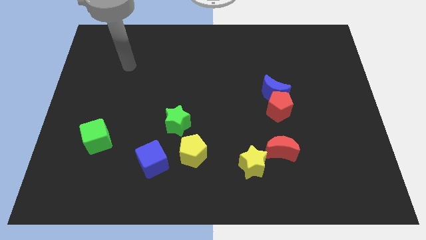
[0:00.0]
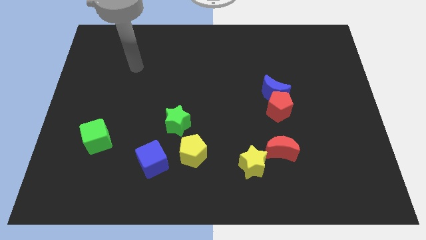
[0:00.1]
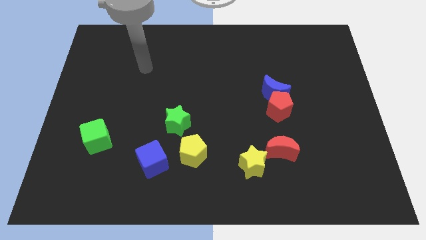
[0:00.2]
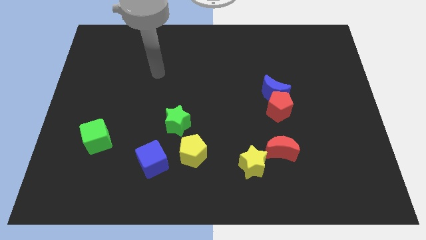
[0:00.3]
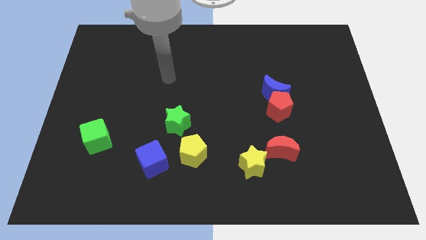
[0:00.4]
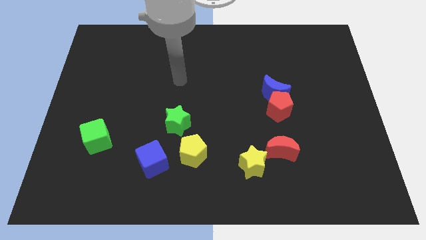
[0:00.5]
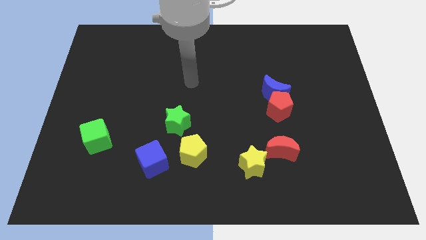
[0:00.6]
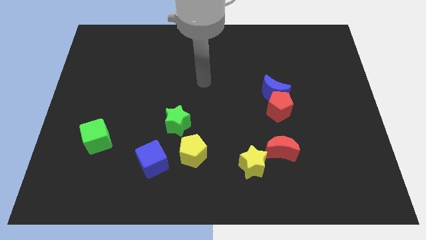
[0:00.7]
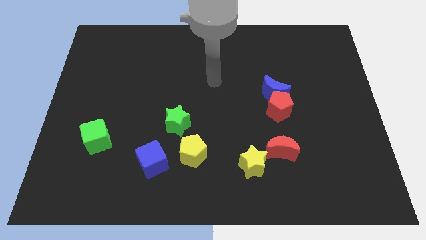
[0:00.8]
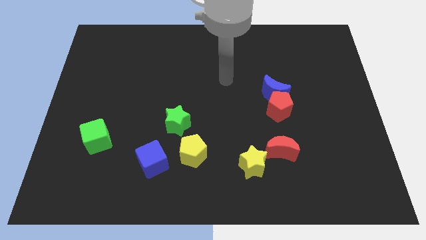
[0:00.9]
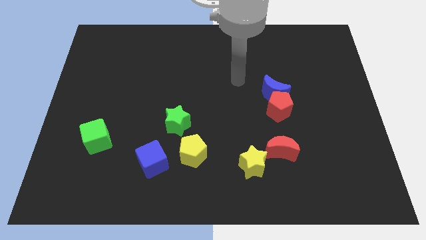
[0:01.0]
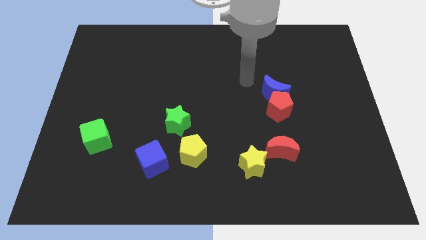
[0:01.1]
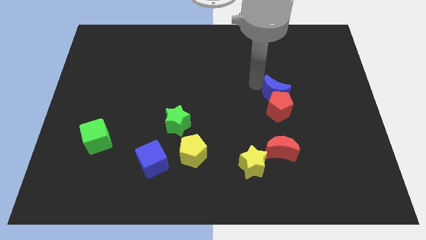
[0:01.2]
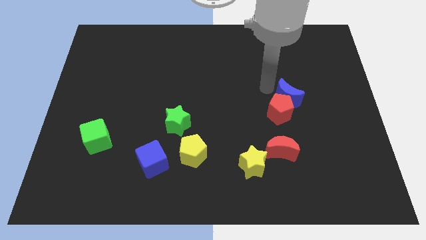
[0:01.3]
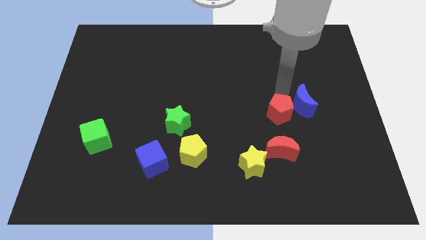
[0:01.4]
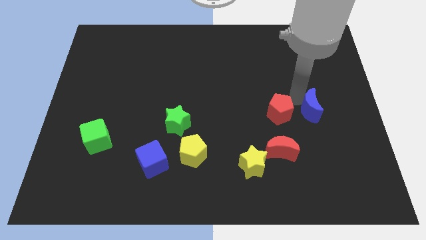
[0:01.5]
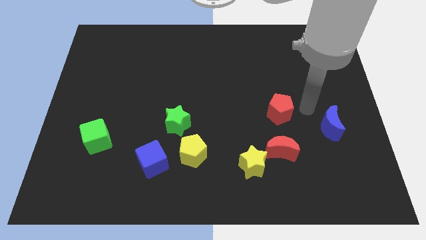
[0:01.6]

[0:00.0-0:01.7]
move the red pentagon away from the blue moon

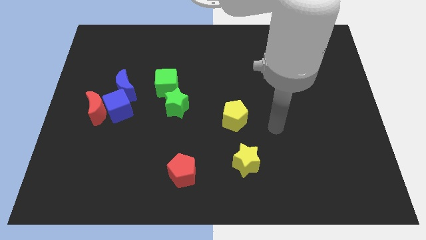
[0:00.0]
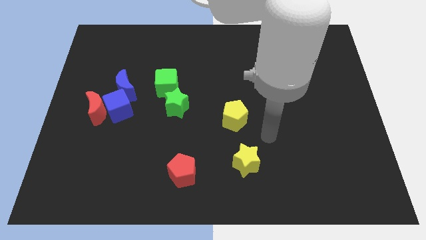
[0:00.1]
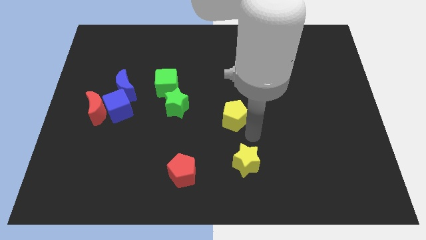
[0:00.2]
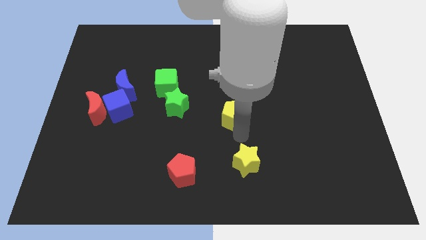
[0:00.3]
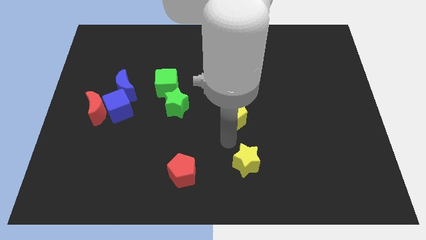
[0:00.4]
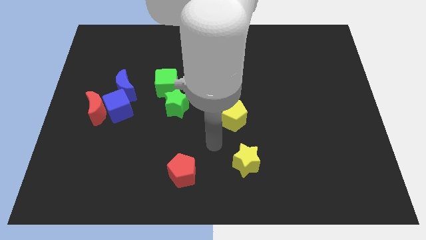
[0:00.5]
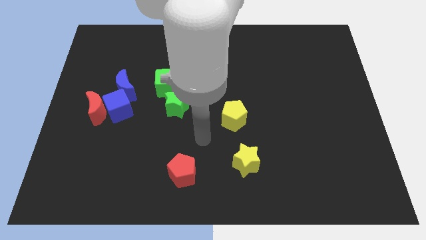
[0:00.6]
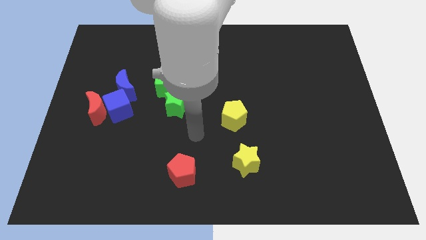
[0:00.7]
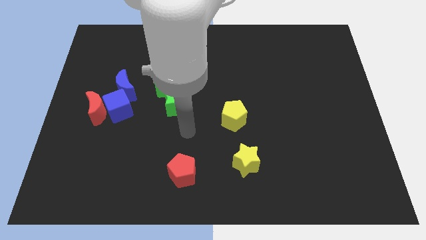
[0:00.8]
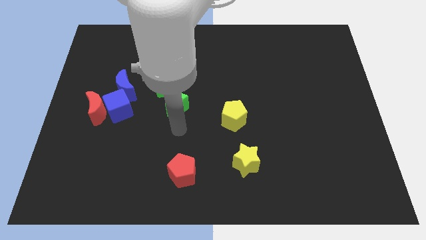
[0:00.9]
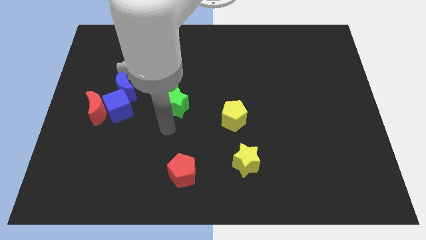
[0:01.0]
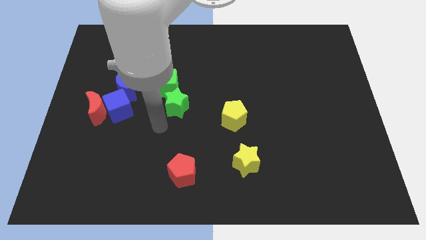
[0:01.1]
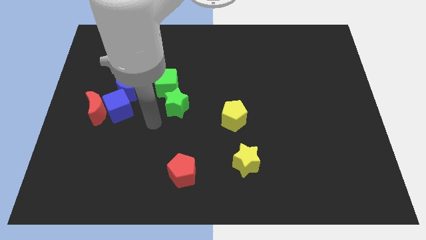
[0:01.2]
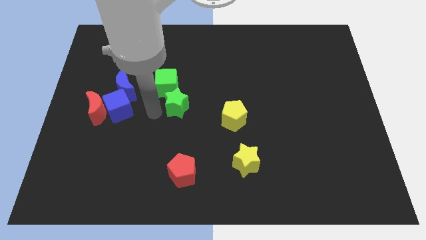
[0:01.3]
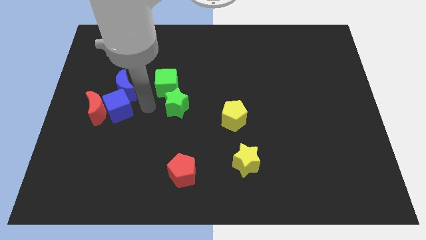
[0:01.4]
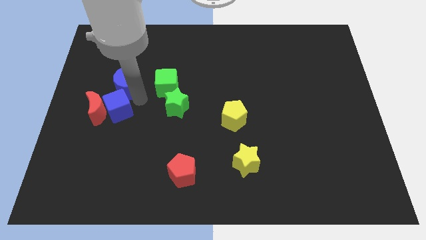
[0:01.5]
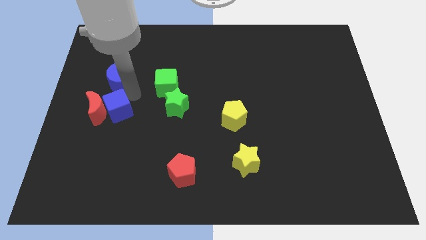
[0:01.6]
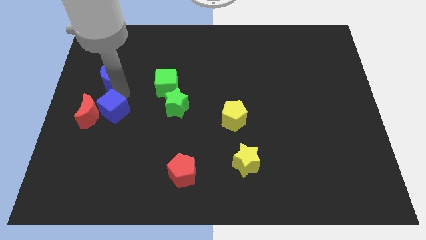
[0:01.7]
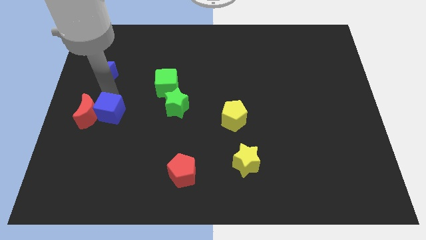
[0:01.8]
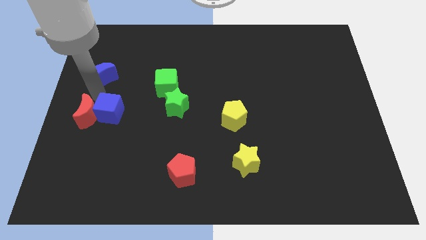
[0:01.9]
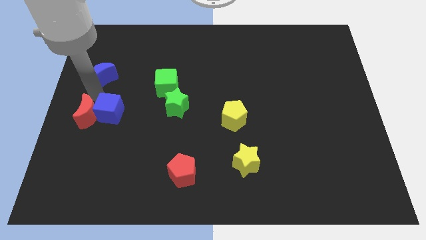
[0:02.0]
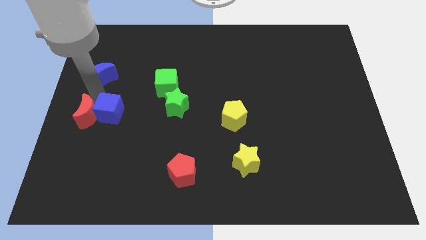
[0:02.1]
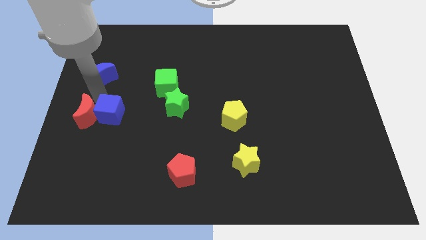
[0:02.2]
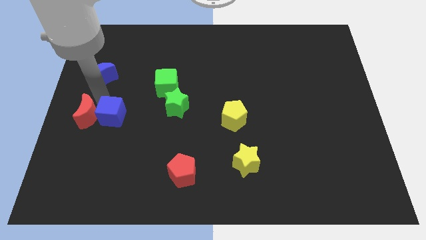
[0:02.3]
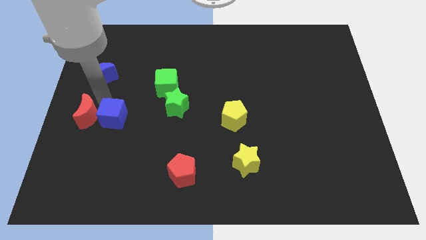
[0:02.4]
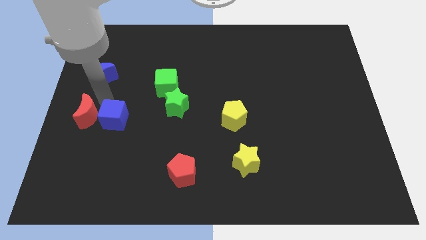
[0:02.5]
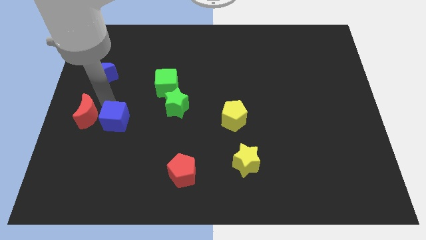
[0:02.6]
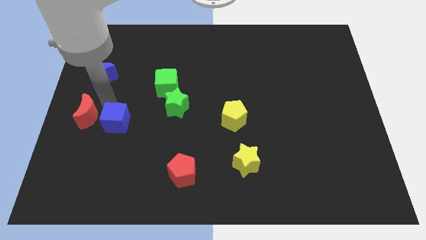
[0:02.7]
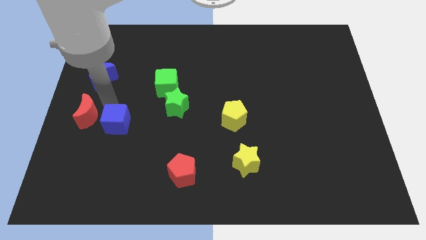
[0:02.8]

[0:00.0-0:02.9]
move the blue cube away from the red moon and blue moon

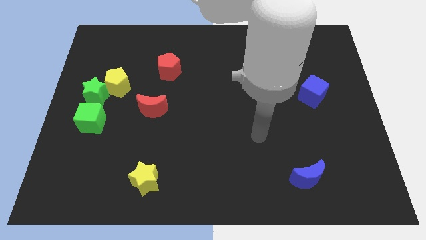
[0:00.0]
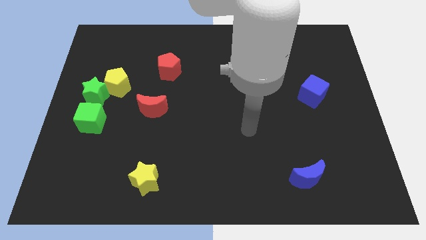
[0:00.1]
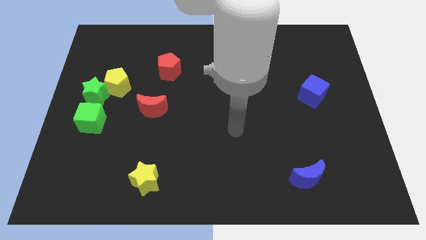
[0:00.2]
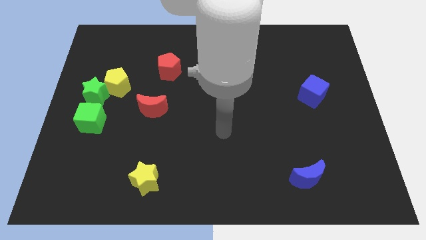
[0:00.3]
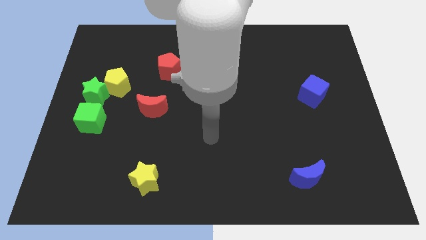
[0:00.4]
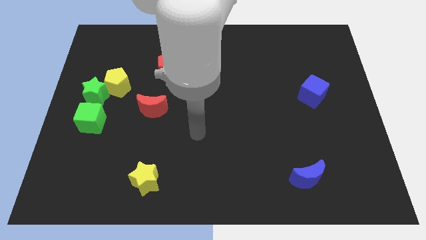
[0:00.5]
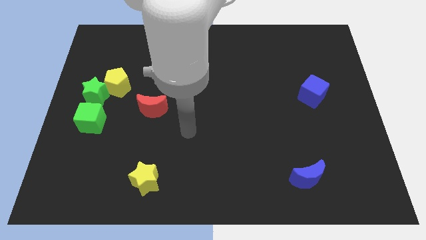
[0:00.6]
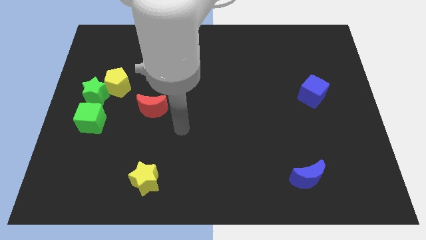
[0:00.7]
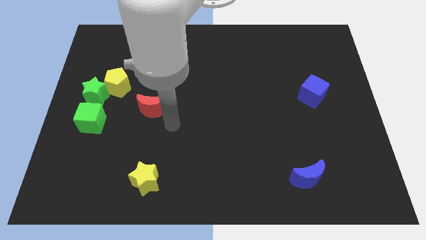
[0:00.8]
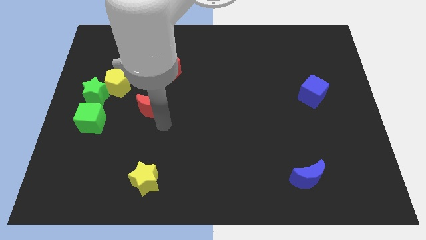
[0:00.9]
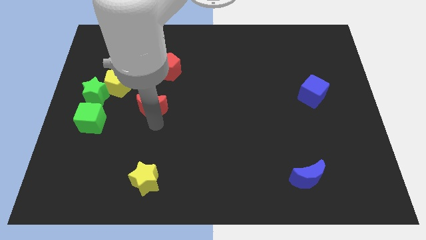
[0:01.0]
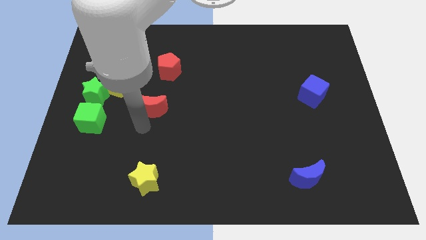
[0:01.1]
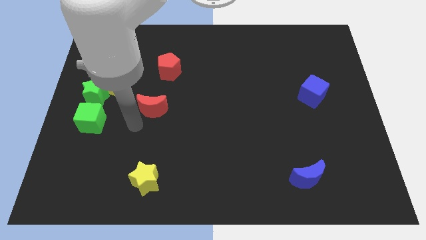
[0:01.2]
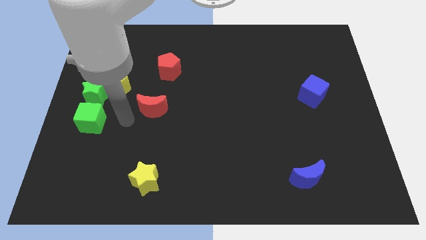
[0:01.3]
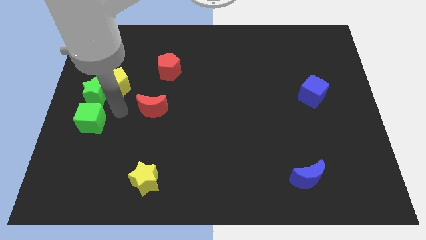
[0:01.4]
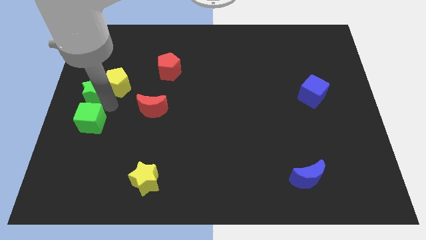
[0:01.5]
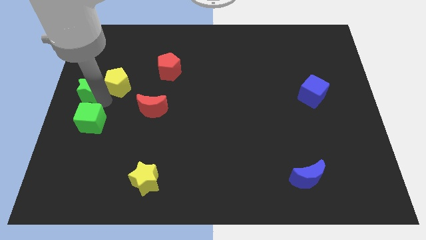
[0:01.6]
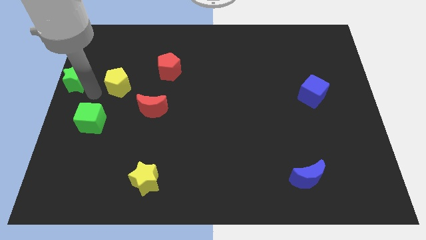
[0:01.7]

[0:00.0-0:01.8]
pull the yellow pentagon apart from the green star

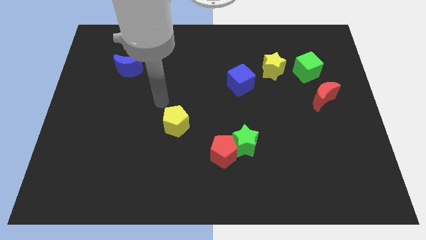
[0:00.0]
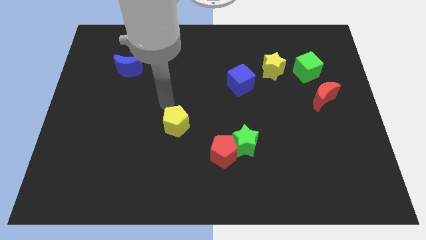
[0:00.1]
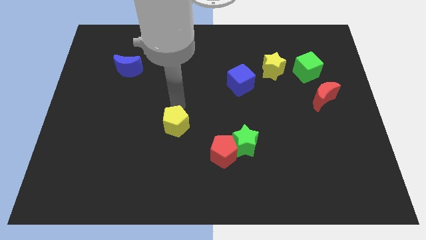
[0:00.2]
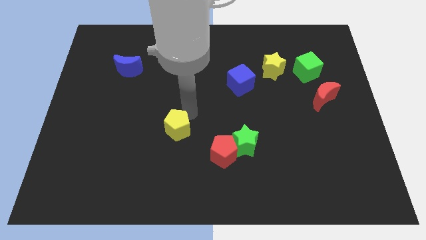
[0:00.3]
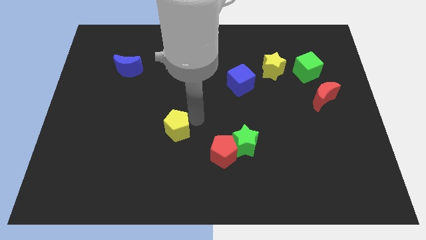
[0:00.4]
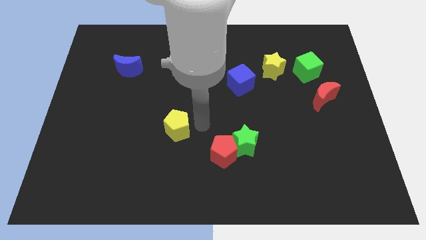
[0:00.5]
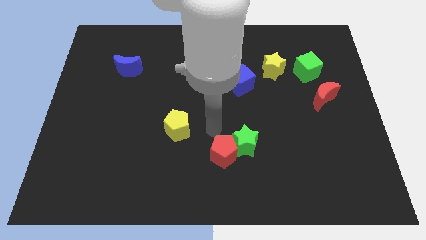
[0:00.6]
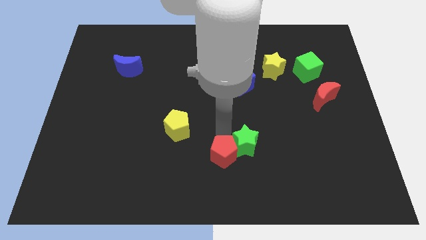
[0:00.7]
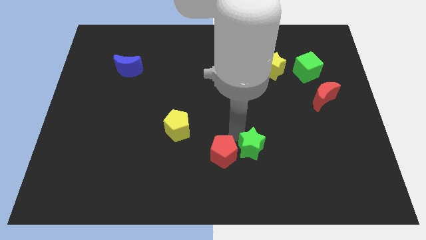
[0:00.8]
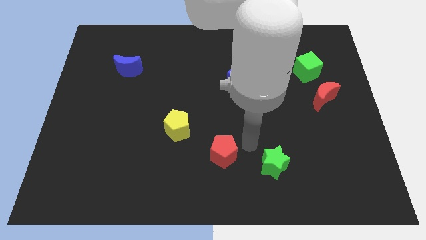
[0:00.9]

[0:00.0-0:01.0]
move the red pentagon away from the green star

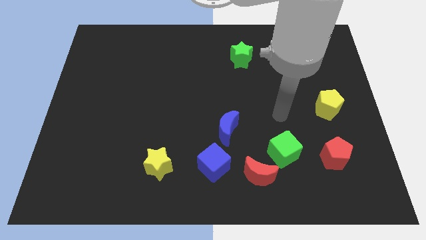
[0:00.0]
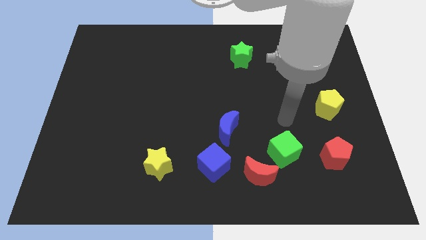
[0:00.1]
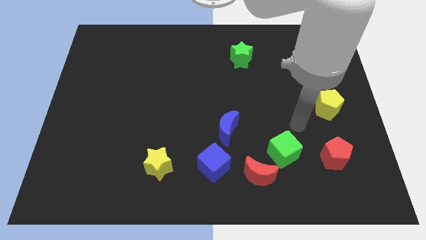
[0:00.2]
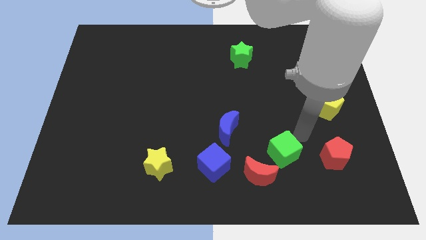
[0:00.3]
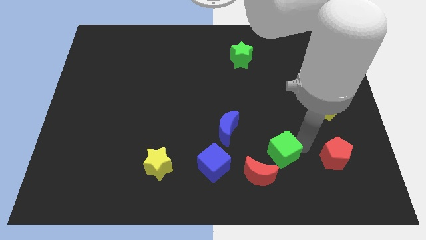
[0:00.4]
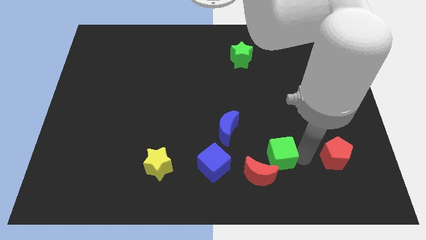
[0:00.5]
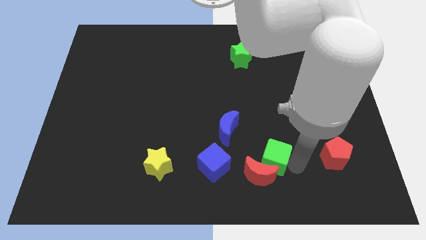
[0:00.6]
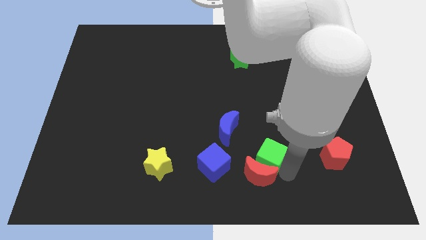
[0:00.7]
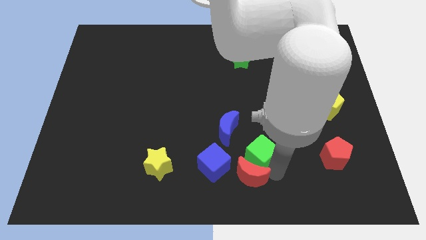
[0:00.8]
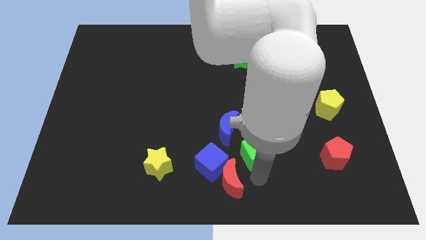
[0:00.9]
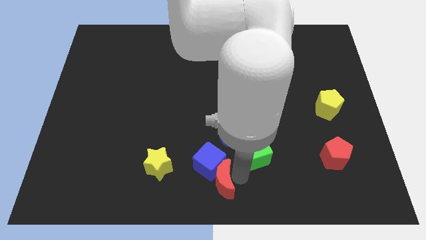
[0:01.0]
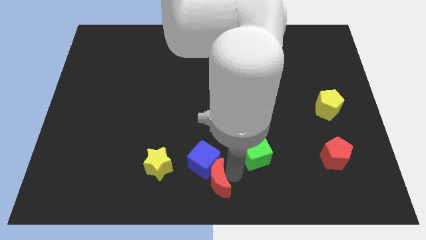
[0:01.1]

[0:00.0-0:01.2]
separate the green cube from the red moon

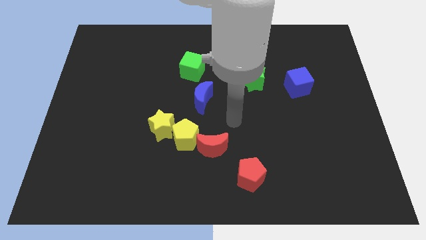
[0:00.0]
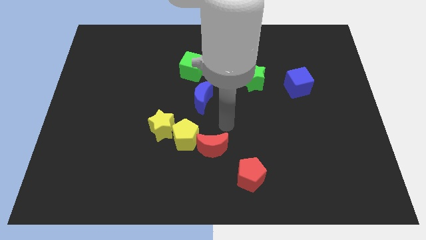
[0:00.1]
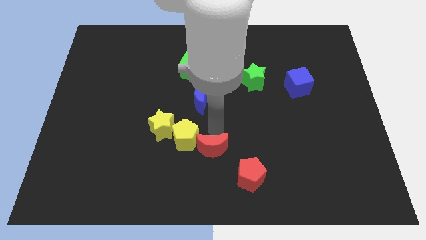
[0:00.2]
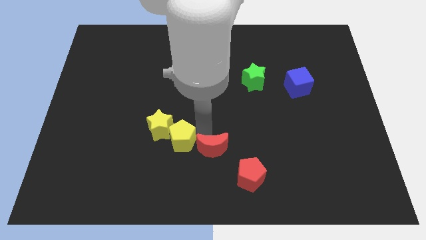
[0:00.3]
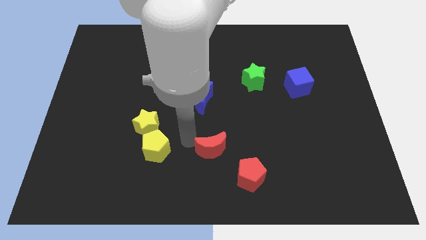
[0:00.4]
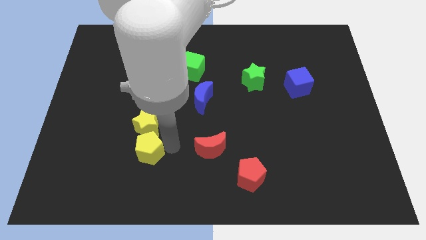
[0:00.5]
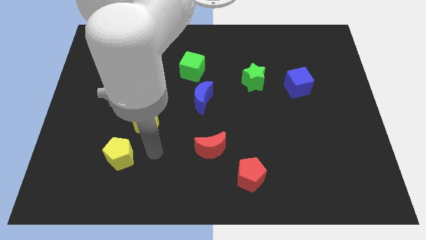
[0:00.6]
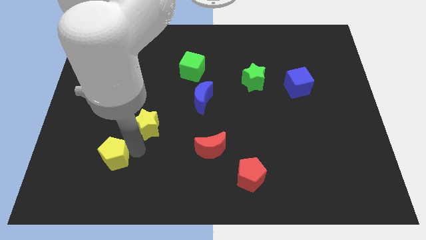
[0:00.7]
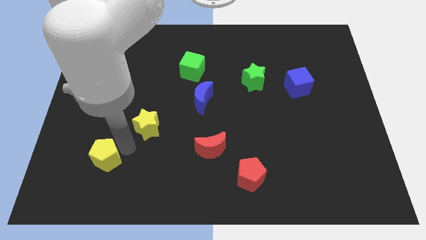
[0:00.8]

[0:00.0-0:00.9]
pull the yellow star apart from the yellow pentagon
